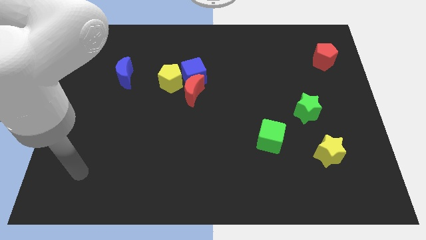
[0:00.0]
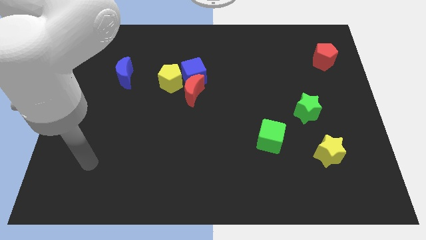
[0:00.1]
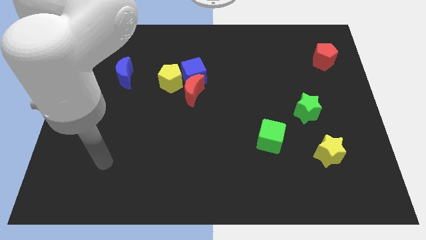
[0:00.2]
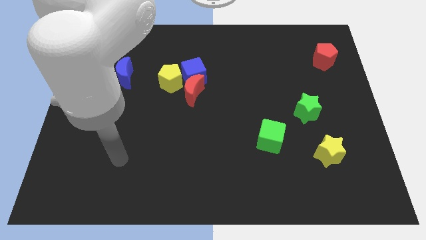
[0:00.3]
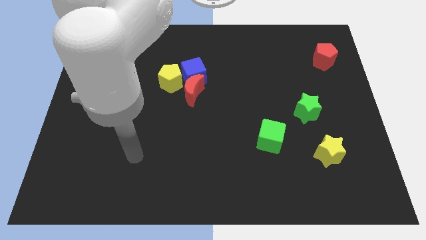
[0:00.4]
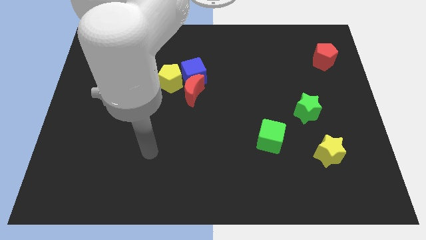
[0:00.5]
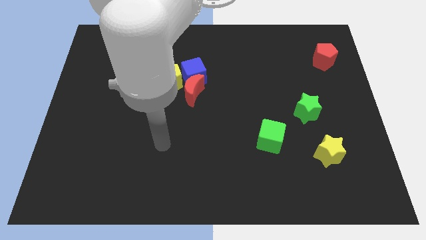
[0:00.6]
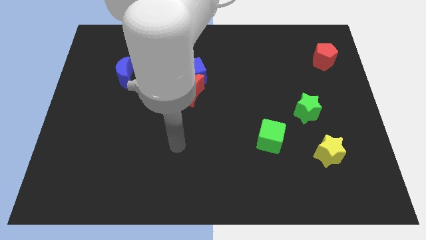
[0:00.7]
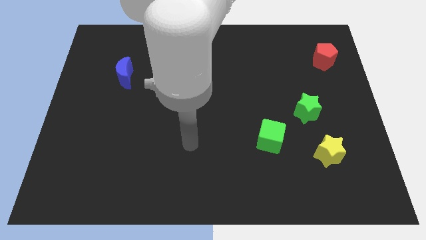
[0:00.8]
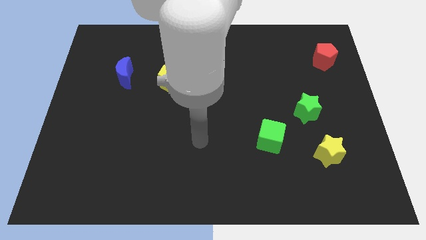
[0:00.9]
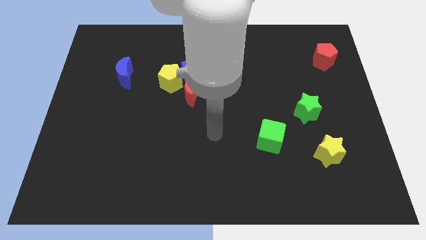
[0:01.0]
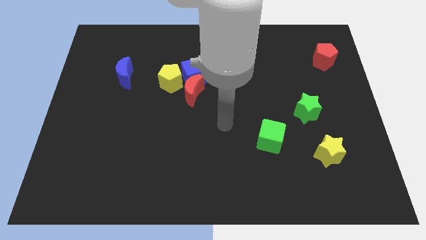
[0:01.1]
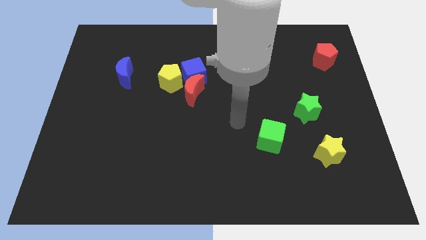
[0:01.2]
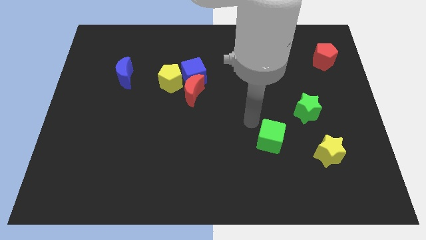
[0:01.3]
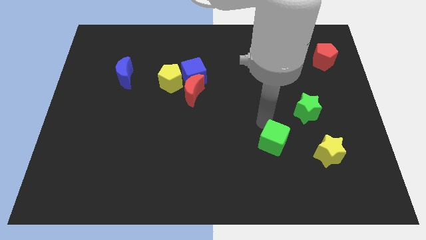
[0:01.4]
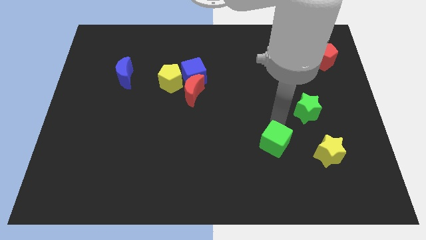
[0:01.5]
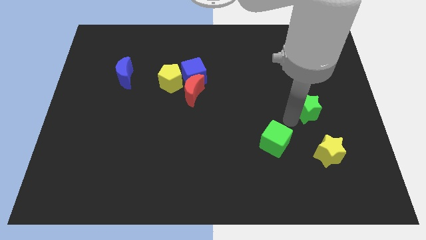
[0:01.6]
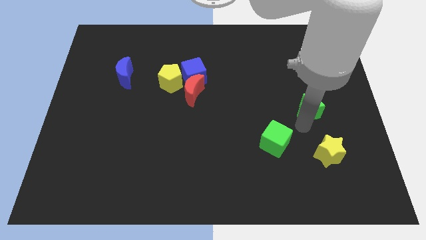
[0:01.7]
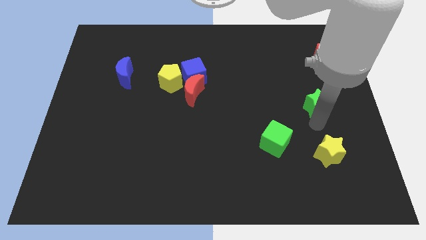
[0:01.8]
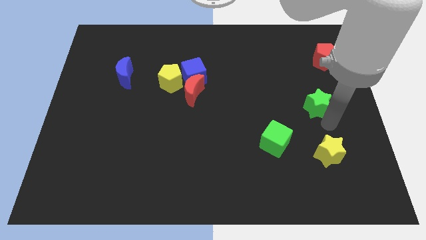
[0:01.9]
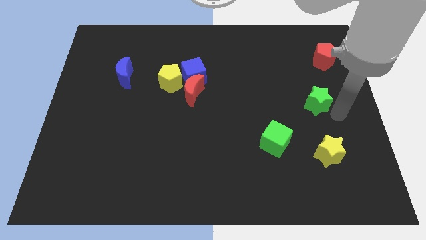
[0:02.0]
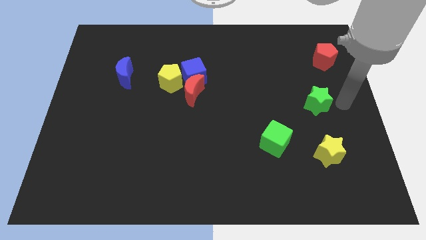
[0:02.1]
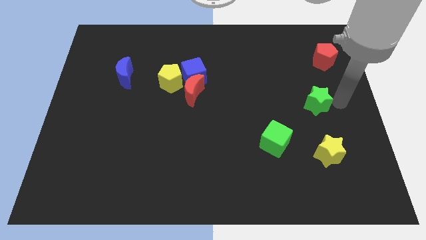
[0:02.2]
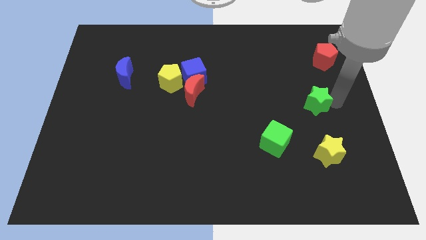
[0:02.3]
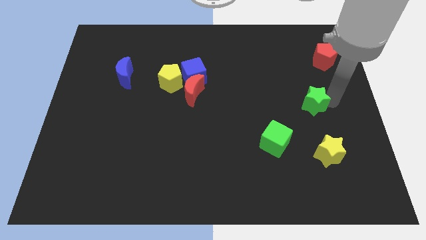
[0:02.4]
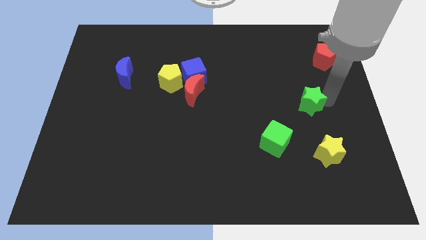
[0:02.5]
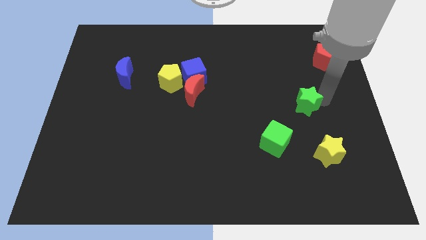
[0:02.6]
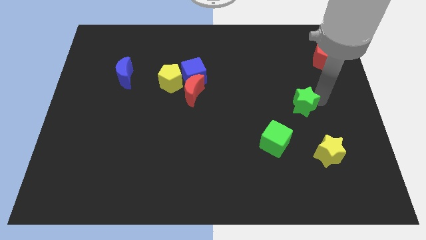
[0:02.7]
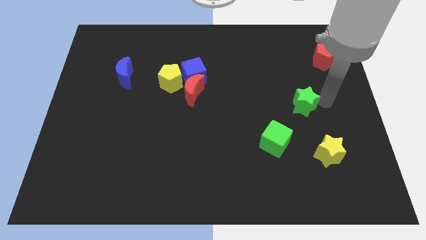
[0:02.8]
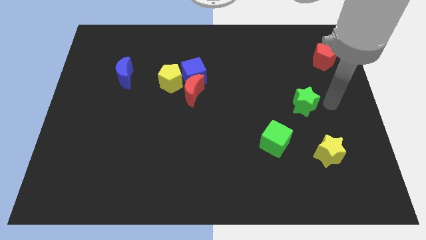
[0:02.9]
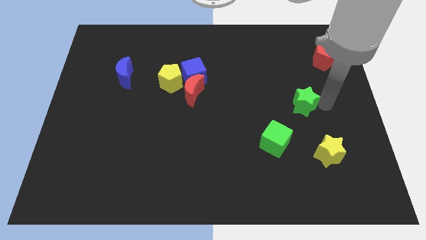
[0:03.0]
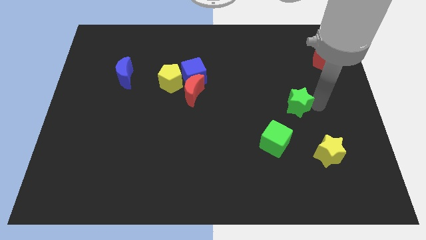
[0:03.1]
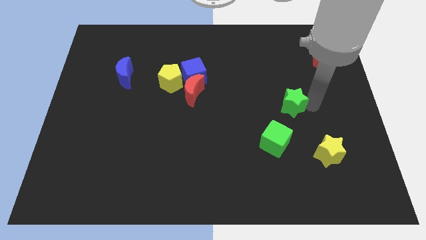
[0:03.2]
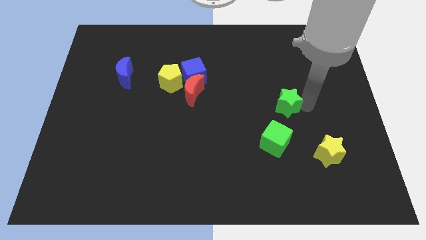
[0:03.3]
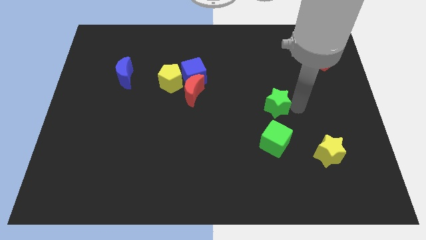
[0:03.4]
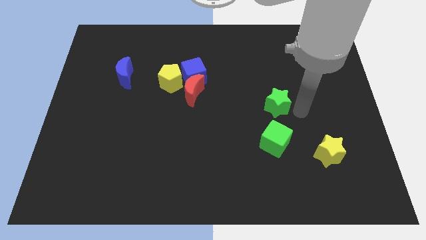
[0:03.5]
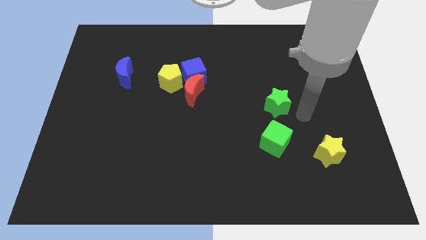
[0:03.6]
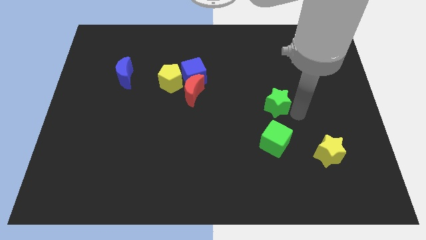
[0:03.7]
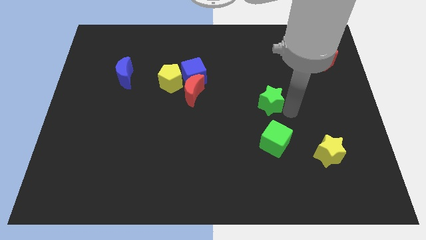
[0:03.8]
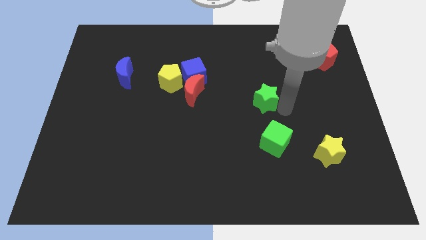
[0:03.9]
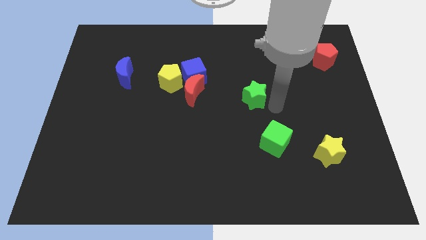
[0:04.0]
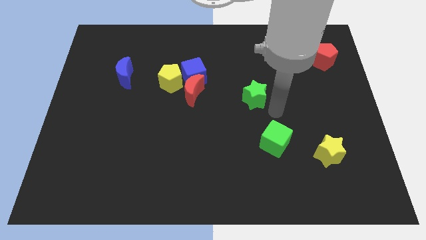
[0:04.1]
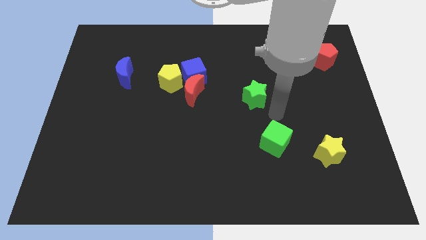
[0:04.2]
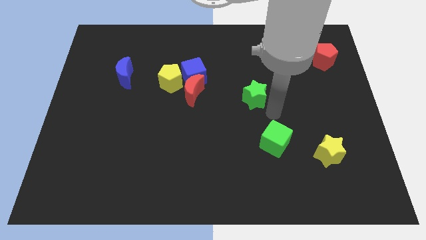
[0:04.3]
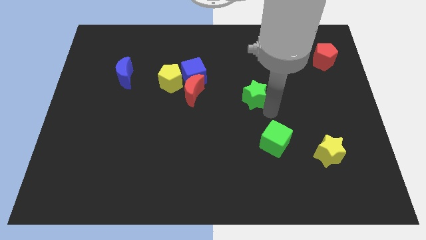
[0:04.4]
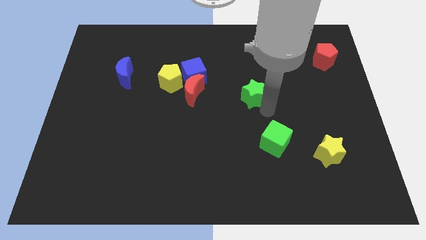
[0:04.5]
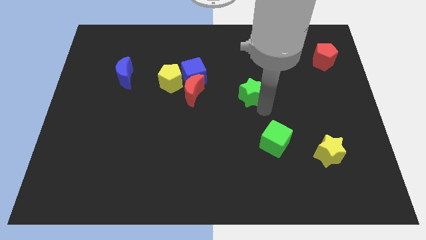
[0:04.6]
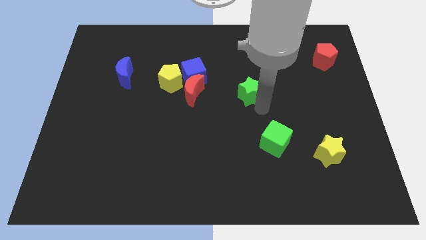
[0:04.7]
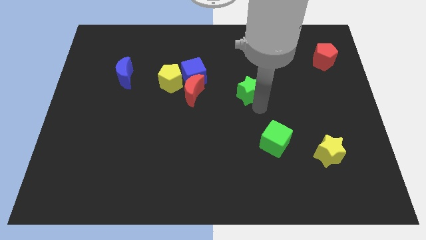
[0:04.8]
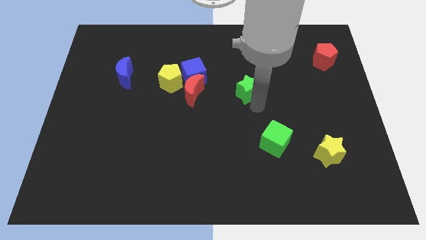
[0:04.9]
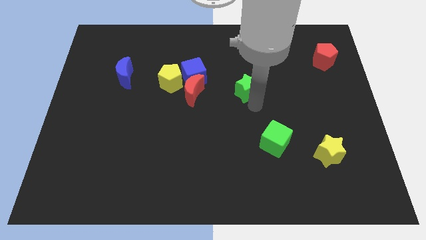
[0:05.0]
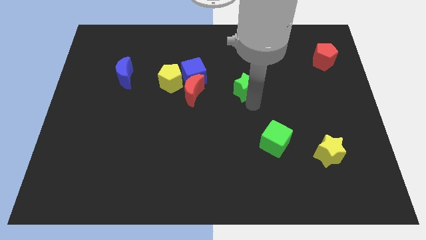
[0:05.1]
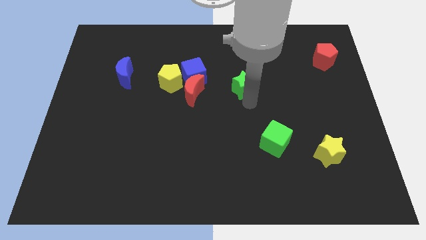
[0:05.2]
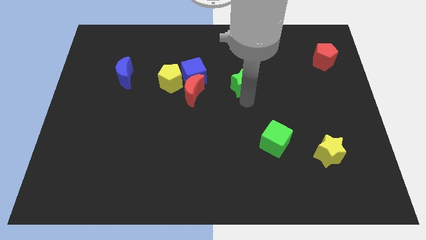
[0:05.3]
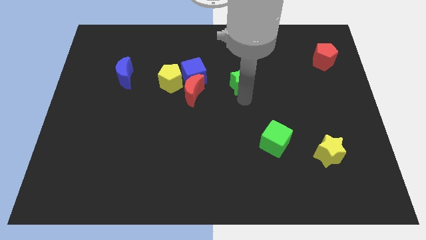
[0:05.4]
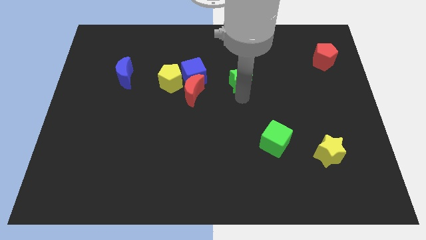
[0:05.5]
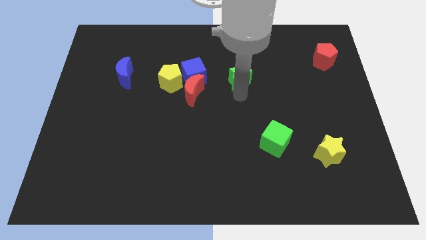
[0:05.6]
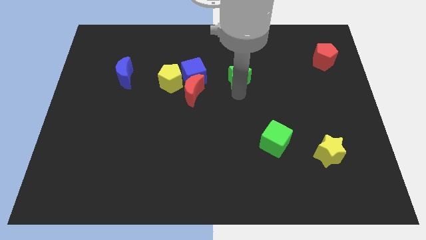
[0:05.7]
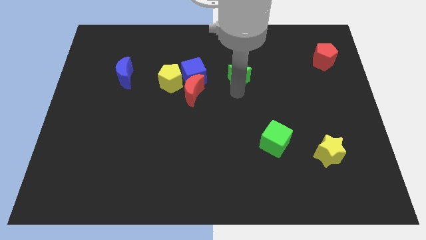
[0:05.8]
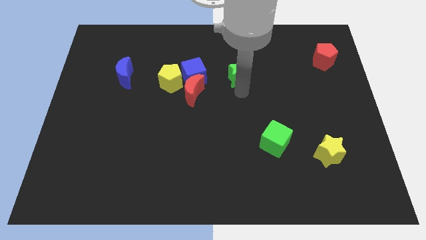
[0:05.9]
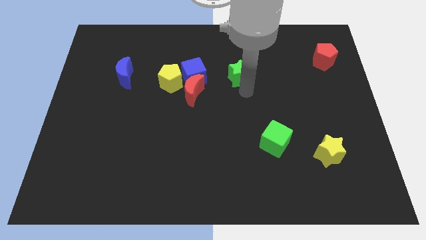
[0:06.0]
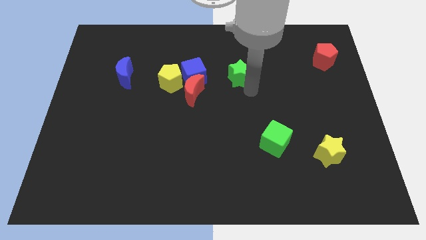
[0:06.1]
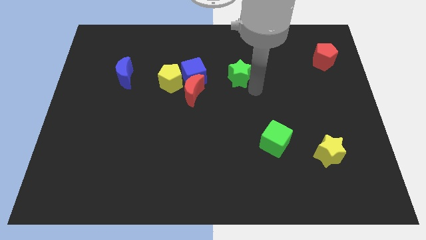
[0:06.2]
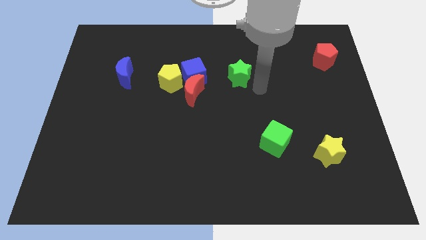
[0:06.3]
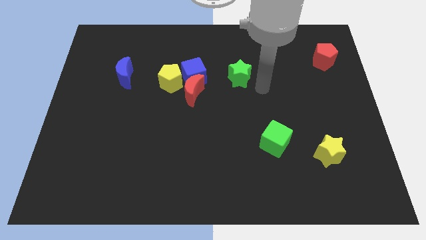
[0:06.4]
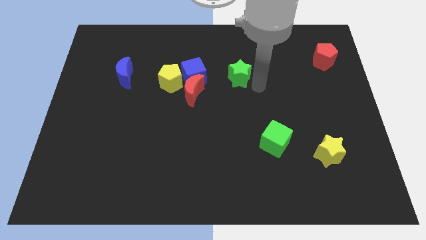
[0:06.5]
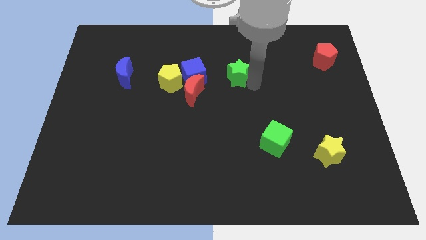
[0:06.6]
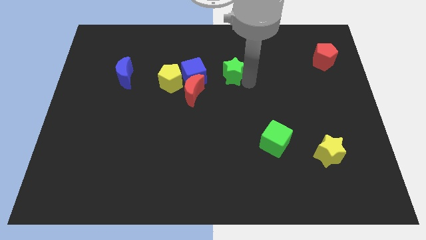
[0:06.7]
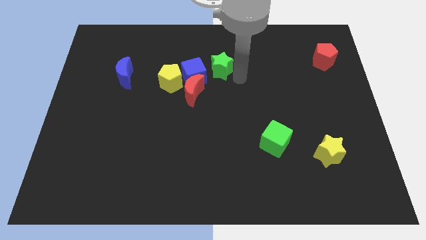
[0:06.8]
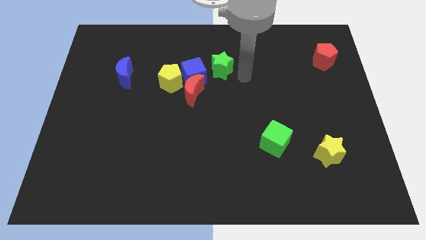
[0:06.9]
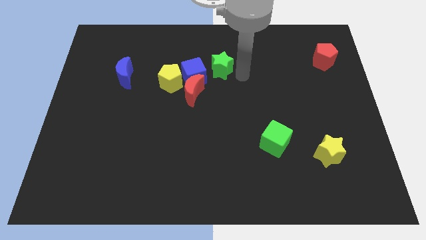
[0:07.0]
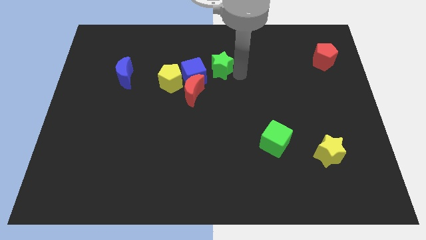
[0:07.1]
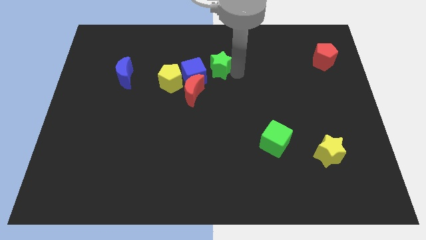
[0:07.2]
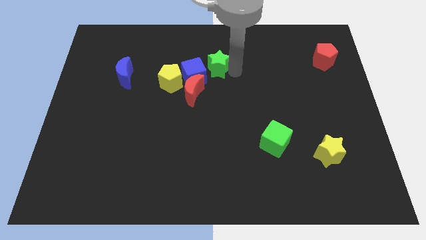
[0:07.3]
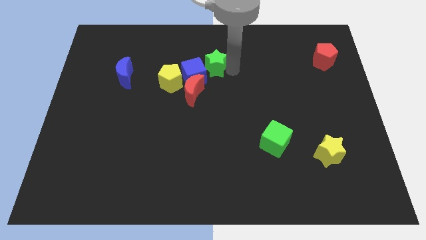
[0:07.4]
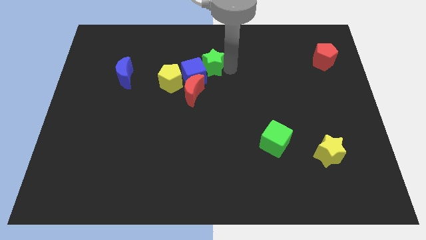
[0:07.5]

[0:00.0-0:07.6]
move the green star to the top of the red moon

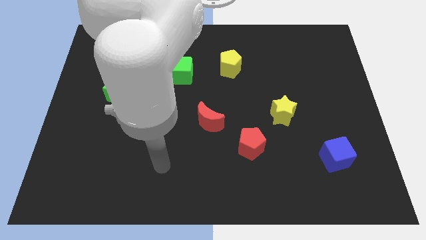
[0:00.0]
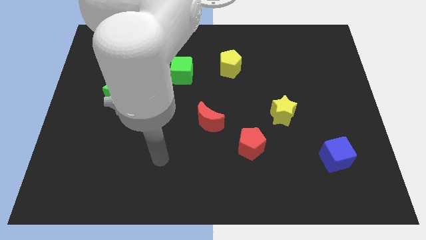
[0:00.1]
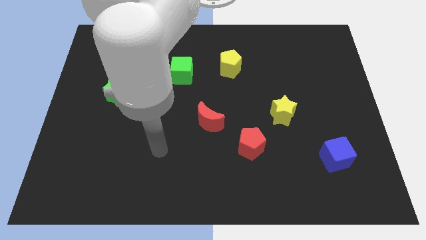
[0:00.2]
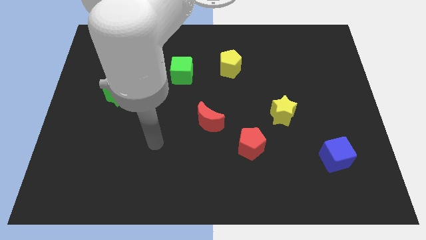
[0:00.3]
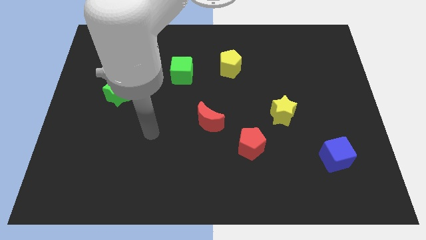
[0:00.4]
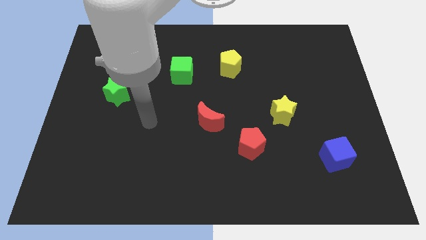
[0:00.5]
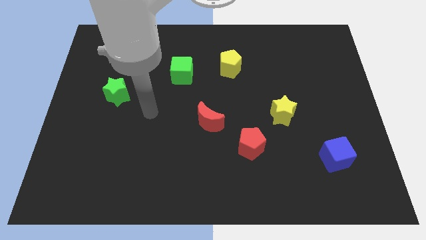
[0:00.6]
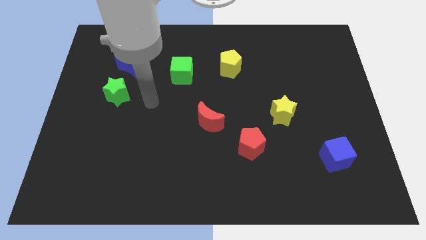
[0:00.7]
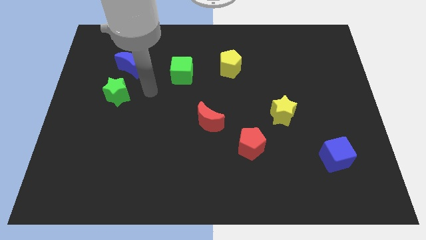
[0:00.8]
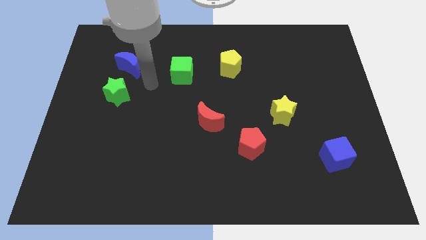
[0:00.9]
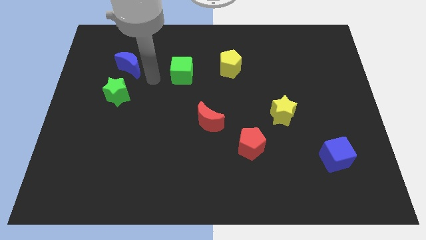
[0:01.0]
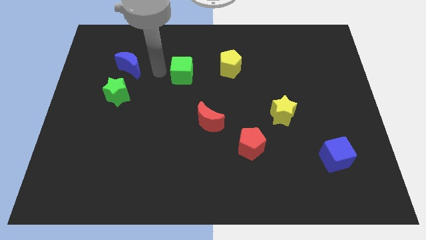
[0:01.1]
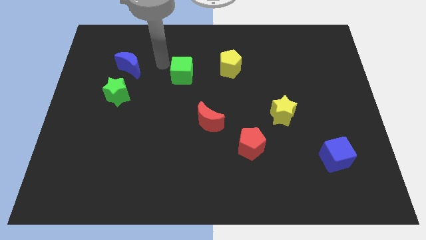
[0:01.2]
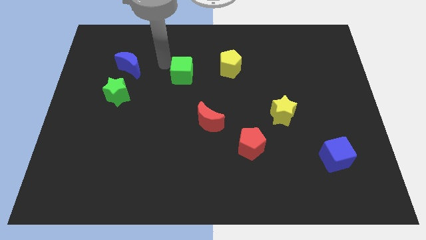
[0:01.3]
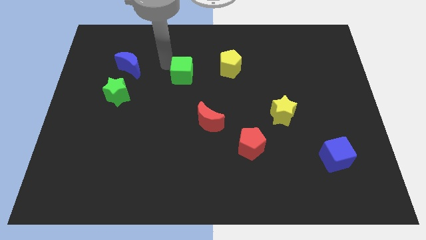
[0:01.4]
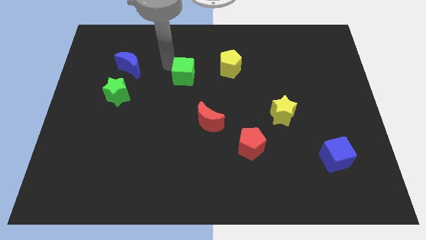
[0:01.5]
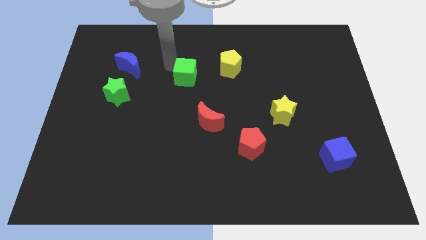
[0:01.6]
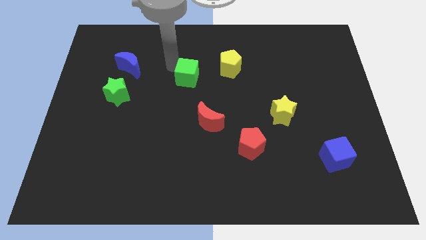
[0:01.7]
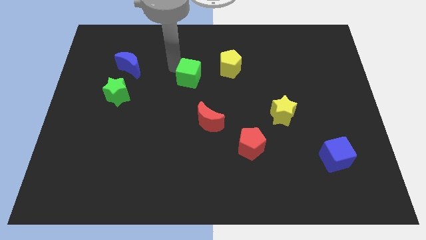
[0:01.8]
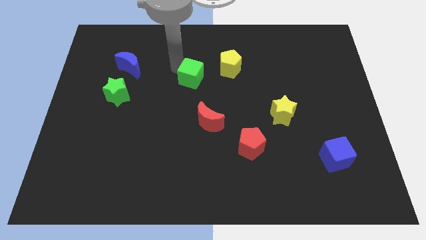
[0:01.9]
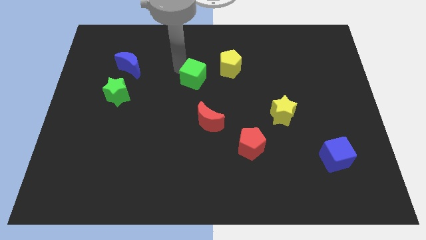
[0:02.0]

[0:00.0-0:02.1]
put the green cube above the red moon
